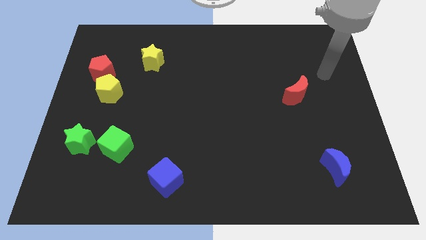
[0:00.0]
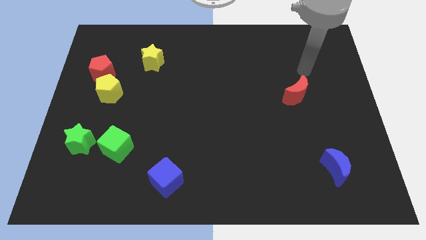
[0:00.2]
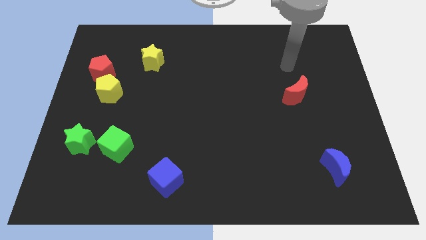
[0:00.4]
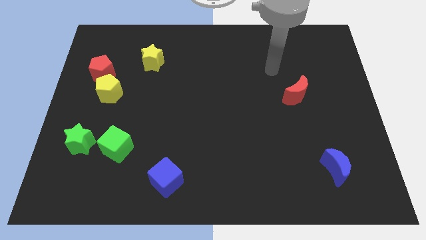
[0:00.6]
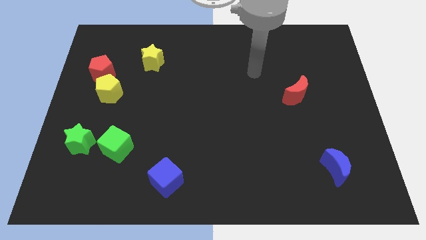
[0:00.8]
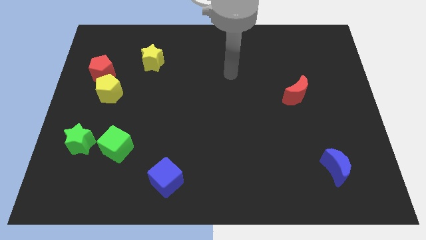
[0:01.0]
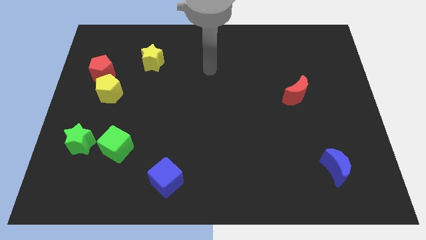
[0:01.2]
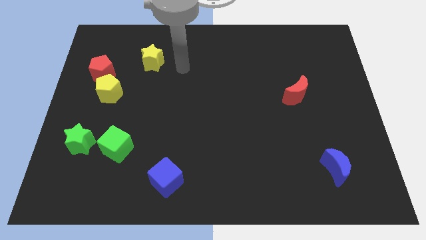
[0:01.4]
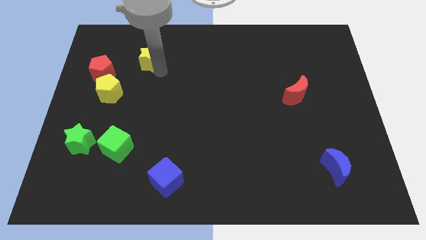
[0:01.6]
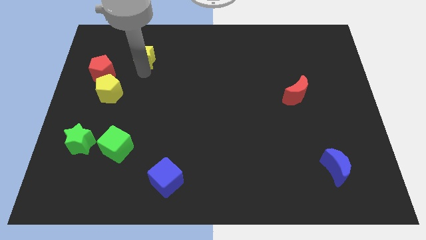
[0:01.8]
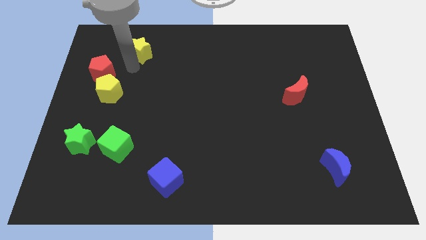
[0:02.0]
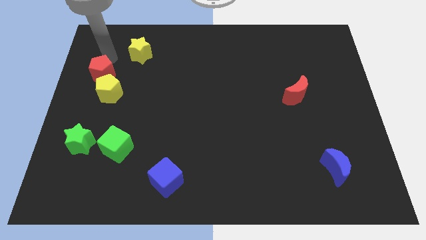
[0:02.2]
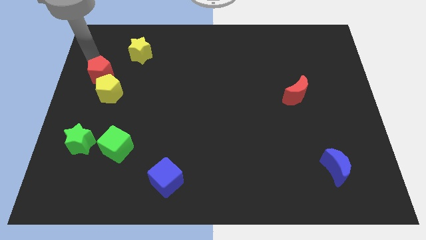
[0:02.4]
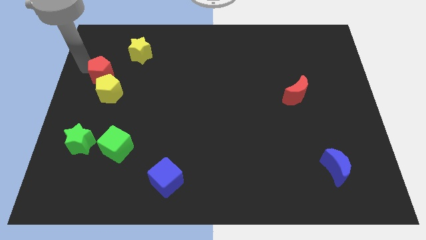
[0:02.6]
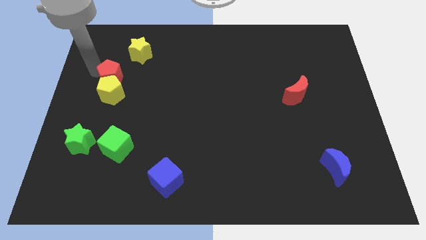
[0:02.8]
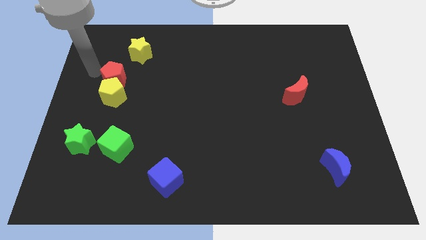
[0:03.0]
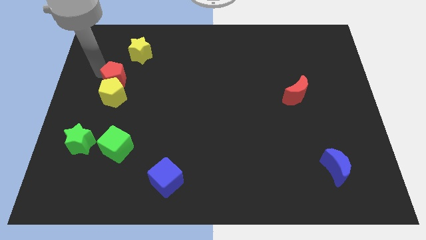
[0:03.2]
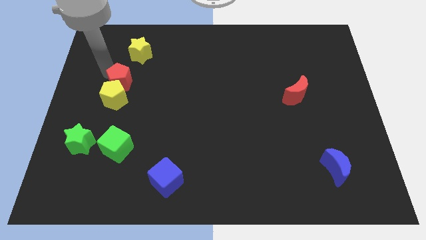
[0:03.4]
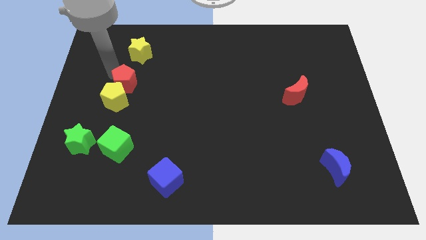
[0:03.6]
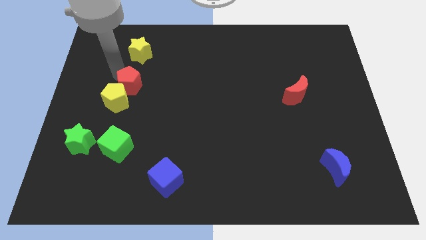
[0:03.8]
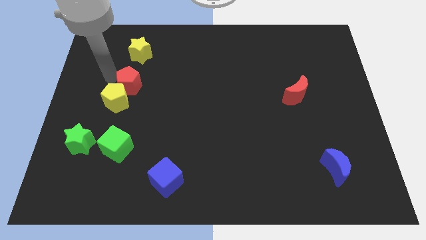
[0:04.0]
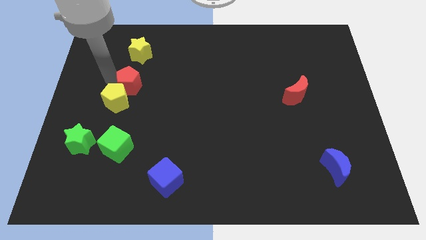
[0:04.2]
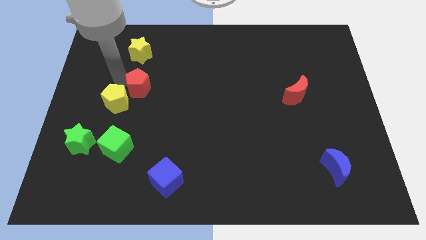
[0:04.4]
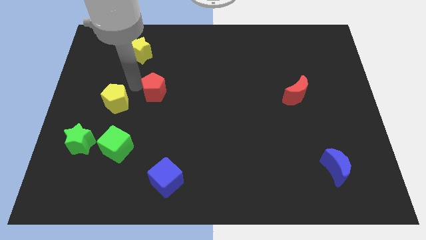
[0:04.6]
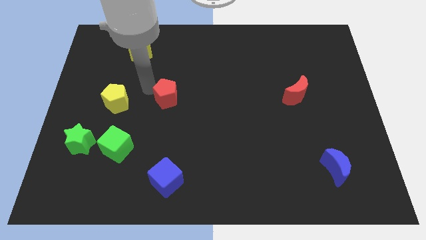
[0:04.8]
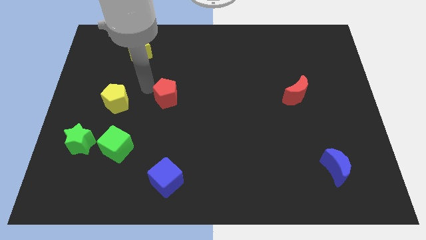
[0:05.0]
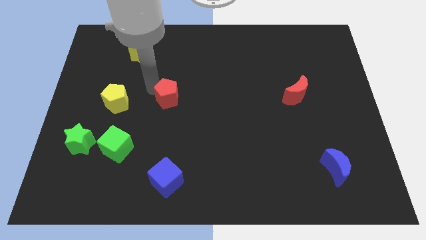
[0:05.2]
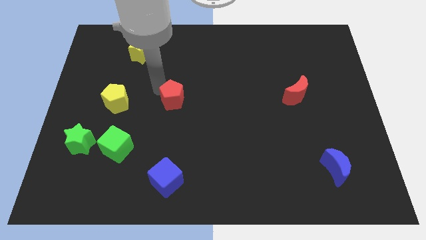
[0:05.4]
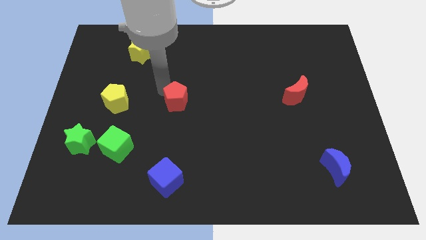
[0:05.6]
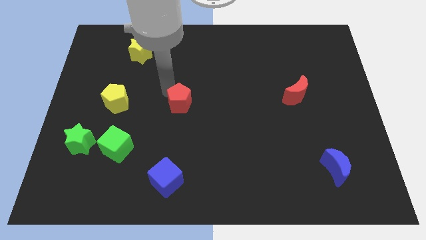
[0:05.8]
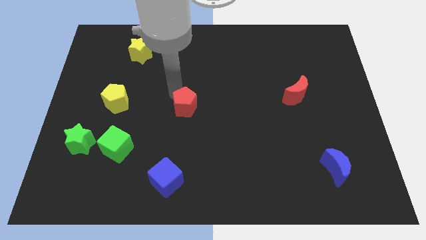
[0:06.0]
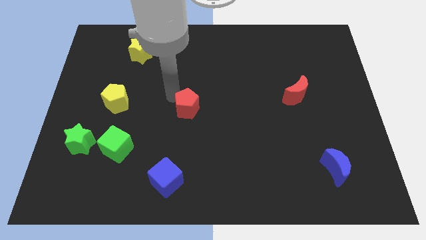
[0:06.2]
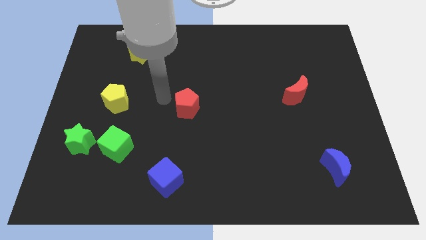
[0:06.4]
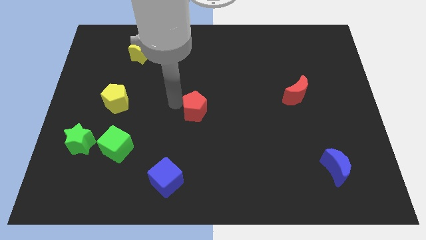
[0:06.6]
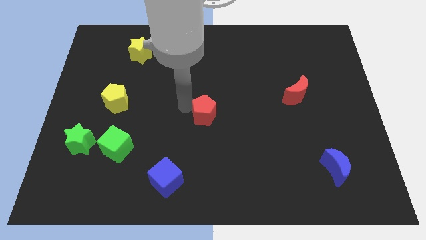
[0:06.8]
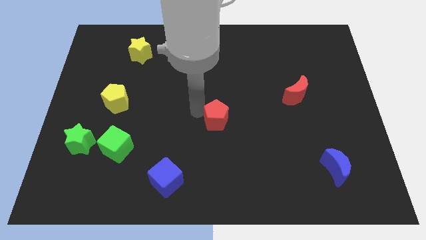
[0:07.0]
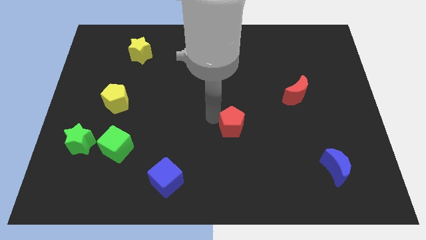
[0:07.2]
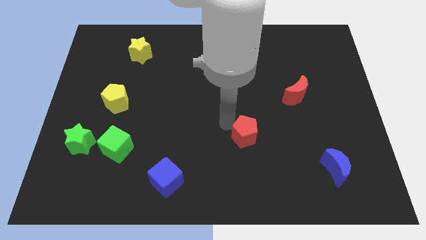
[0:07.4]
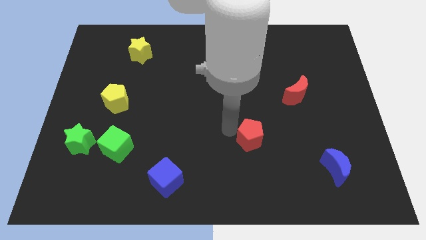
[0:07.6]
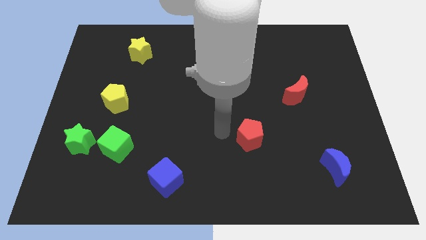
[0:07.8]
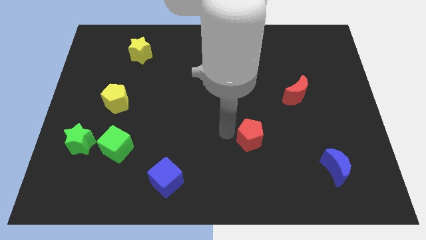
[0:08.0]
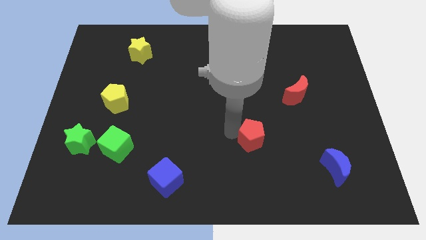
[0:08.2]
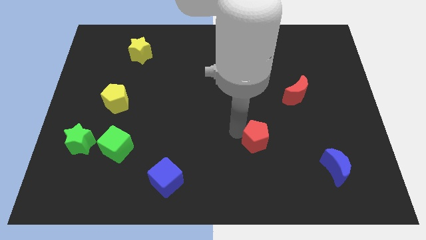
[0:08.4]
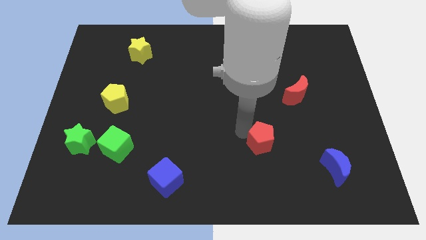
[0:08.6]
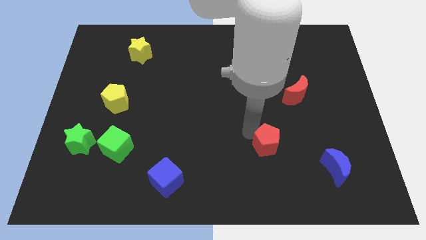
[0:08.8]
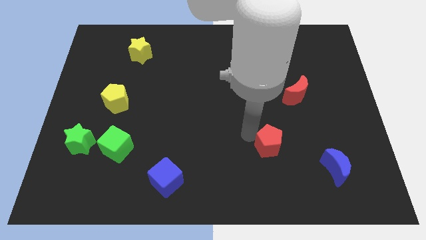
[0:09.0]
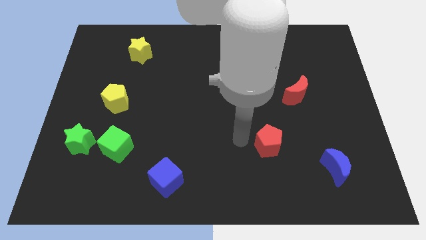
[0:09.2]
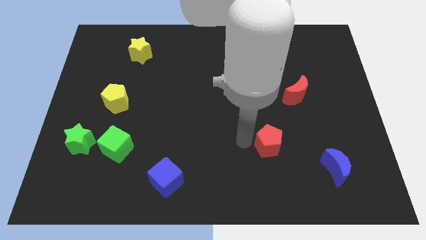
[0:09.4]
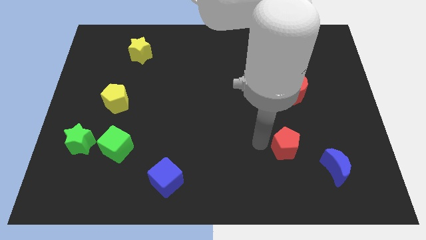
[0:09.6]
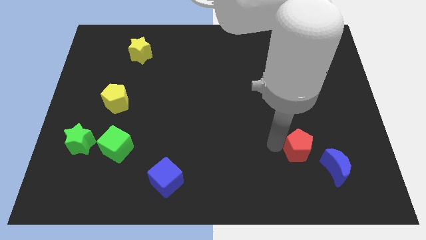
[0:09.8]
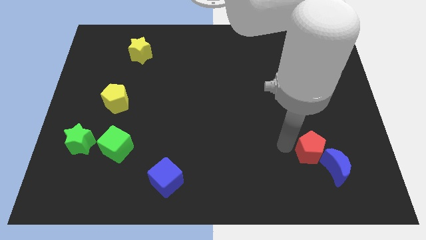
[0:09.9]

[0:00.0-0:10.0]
move the red pentagon to the blue moon

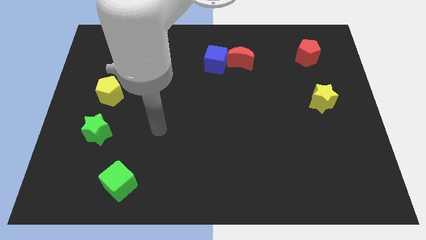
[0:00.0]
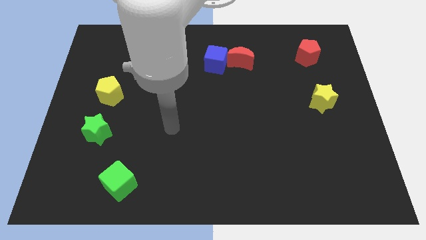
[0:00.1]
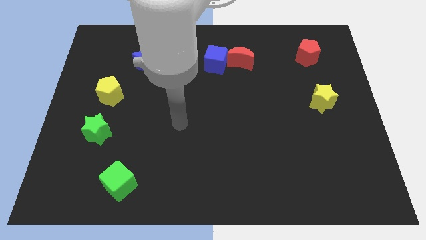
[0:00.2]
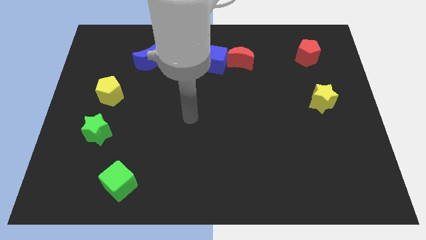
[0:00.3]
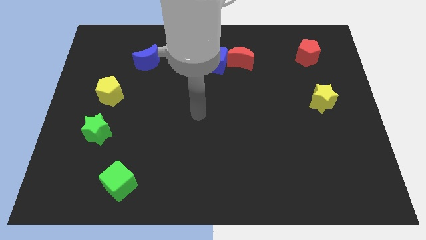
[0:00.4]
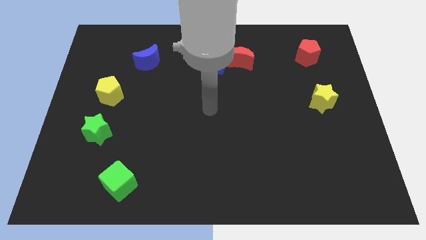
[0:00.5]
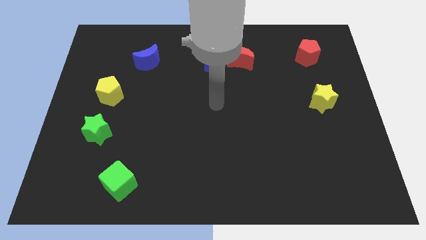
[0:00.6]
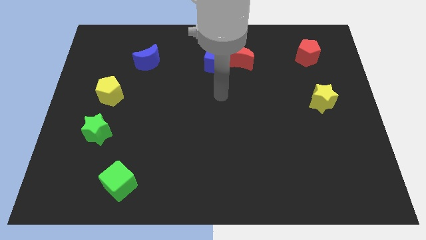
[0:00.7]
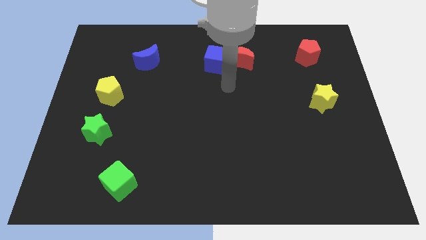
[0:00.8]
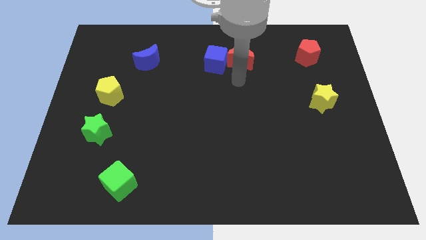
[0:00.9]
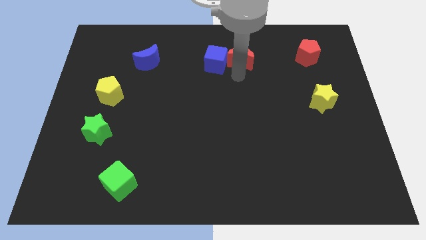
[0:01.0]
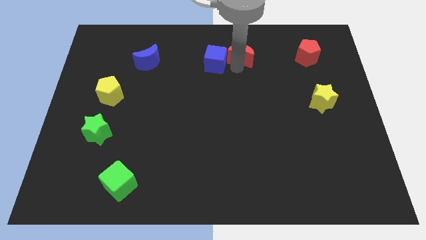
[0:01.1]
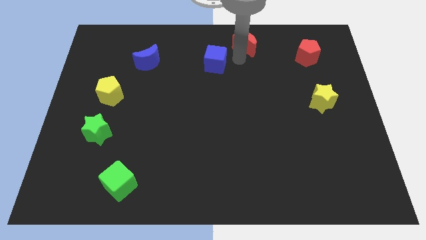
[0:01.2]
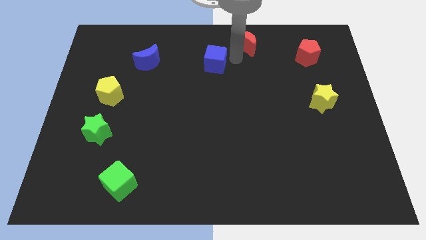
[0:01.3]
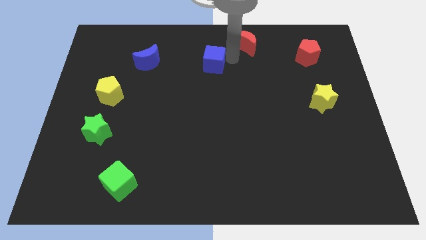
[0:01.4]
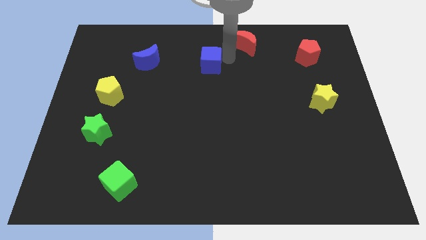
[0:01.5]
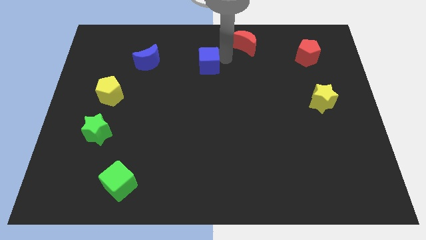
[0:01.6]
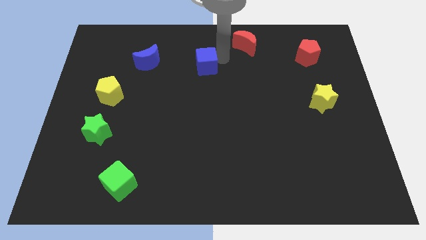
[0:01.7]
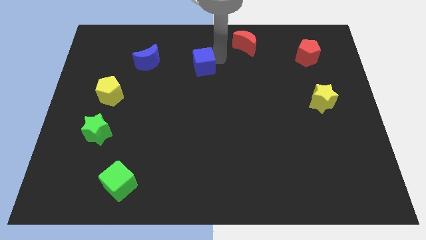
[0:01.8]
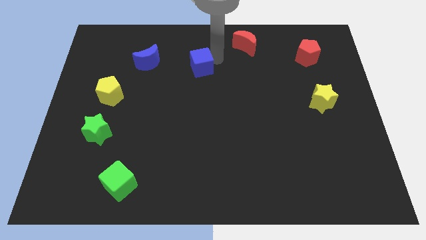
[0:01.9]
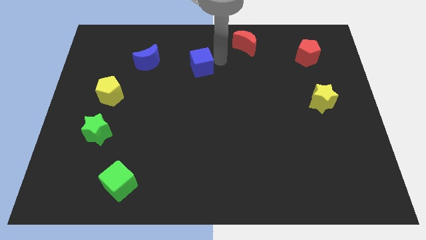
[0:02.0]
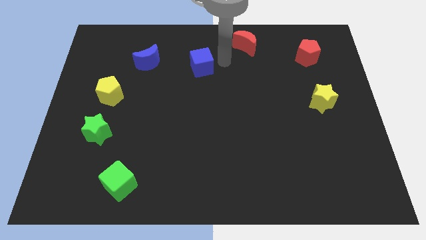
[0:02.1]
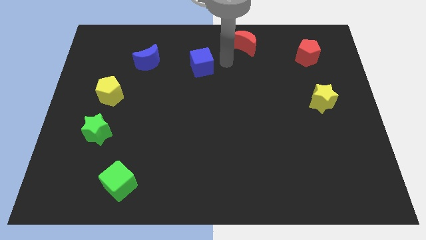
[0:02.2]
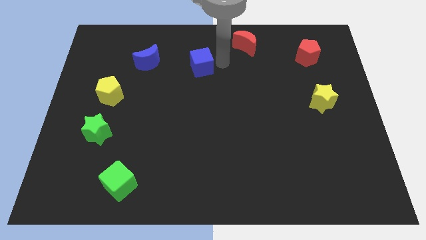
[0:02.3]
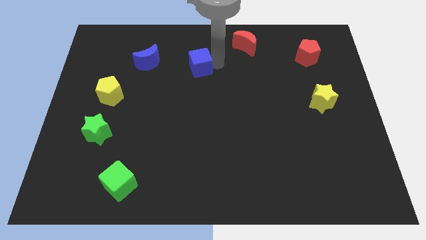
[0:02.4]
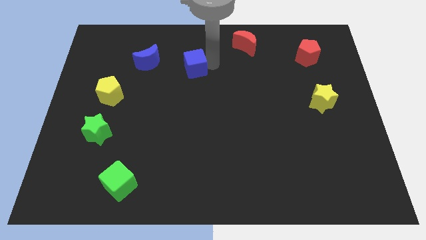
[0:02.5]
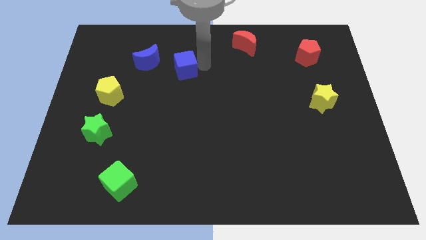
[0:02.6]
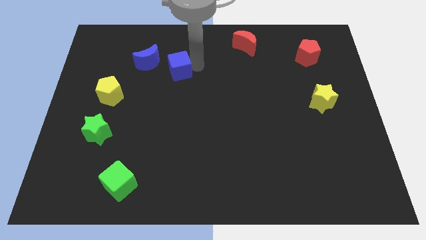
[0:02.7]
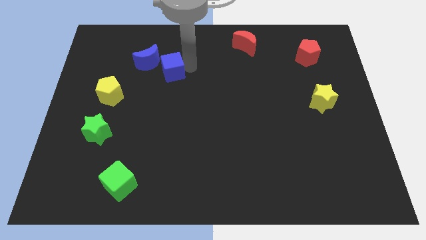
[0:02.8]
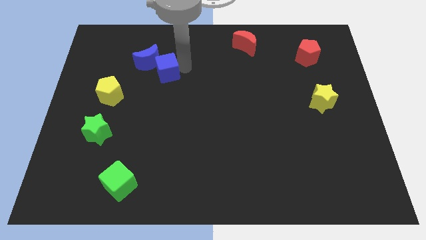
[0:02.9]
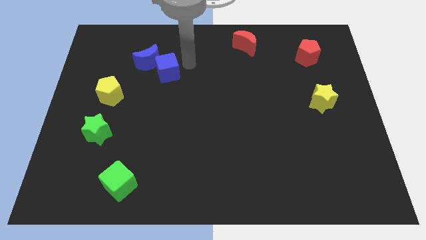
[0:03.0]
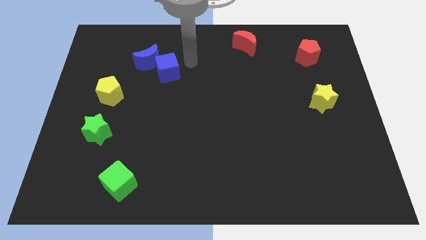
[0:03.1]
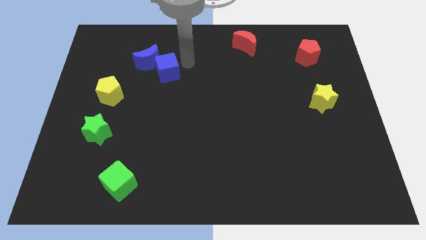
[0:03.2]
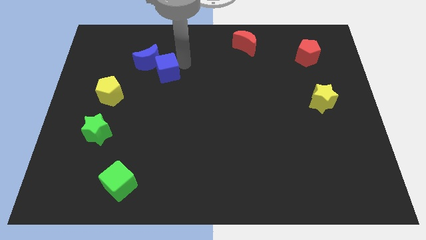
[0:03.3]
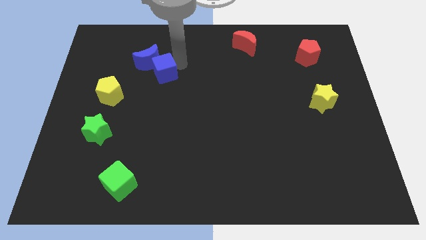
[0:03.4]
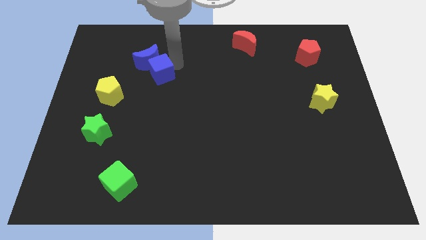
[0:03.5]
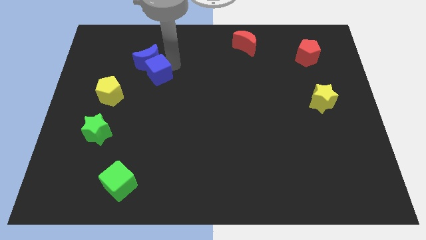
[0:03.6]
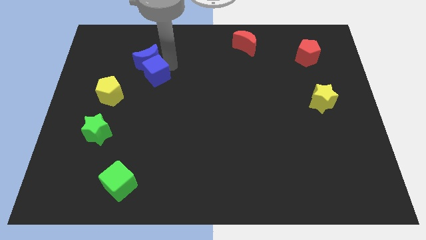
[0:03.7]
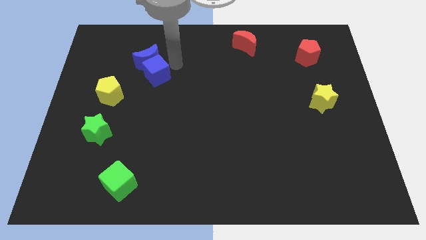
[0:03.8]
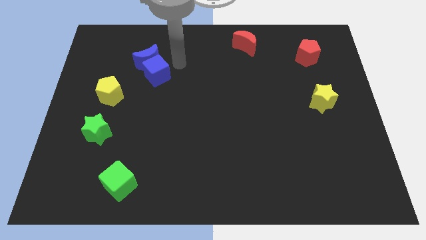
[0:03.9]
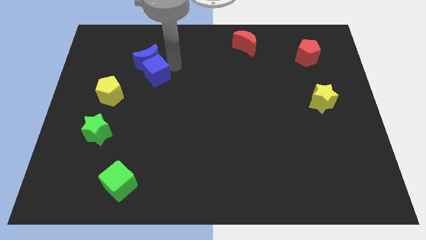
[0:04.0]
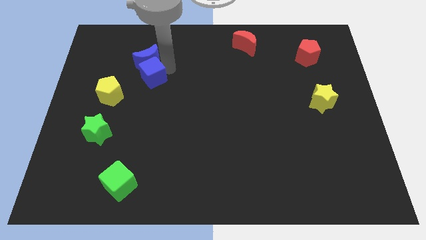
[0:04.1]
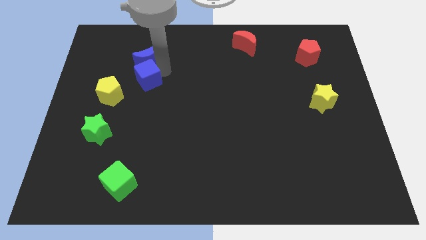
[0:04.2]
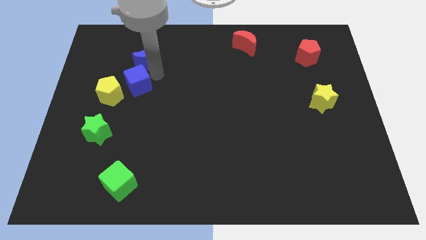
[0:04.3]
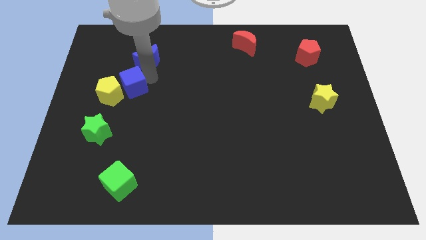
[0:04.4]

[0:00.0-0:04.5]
slide the blue cube to the yellow pentagon
